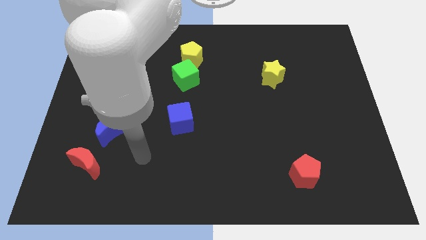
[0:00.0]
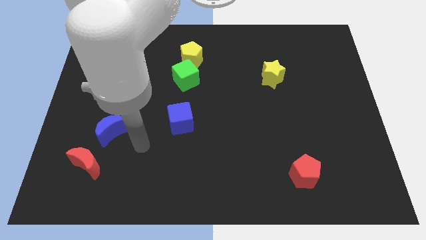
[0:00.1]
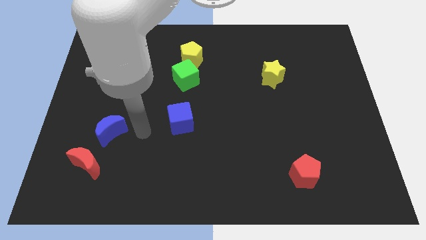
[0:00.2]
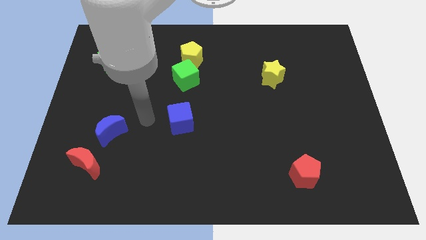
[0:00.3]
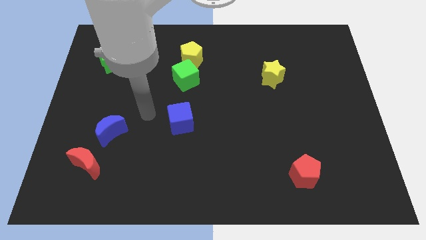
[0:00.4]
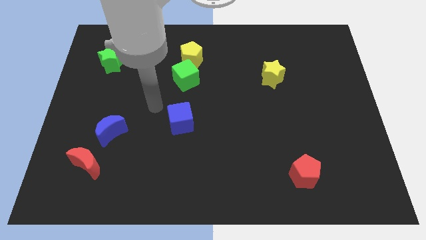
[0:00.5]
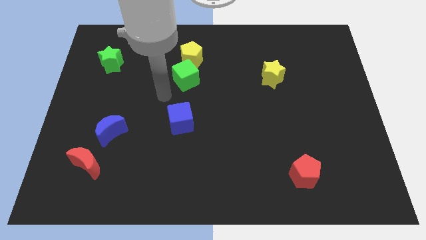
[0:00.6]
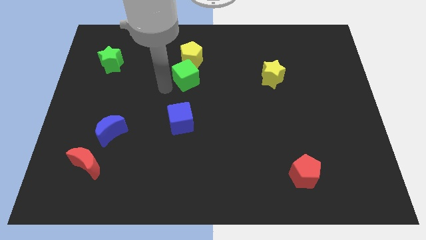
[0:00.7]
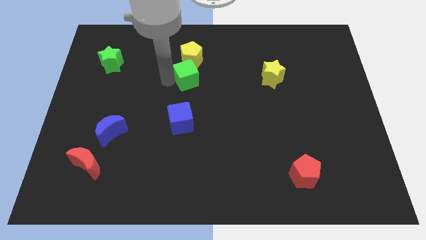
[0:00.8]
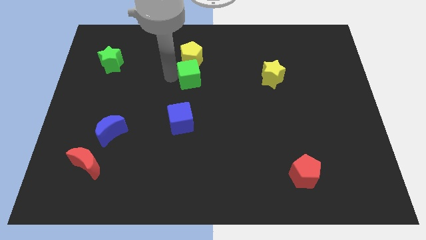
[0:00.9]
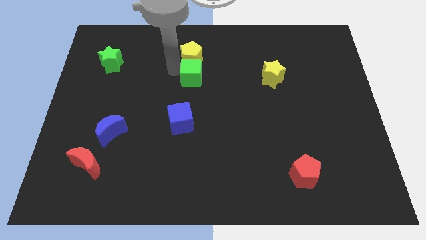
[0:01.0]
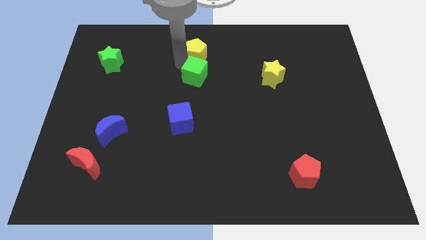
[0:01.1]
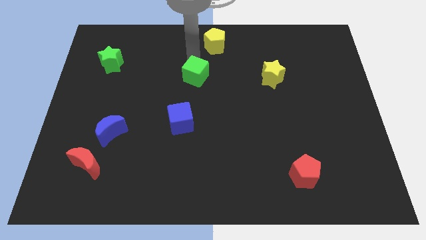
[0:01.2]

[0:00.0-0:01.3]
pull the green cube apart from the yellow pentagon

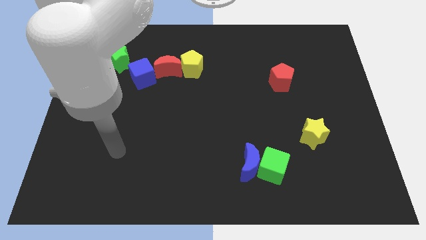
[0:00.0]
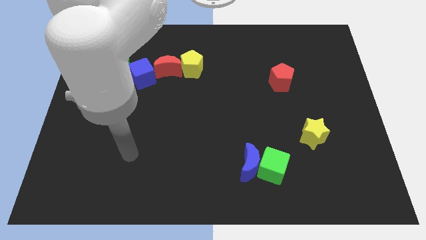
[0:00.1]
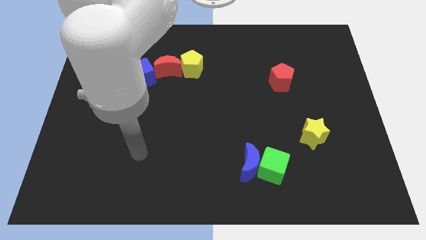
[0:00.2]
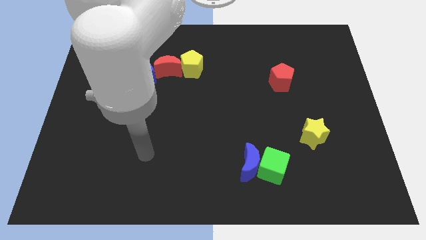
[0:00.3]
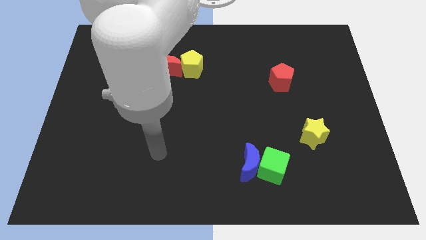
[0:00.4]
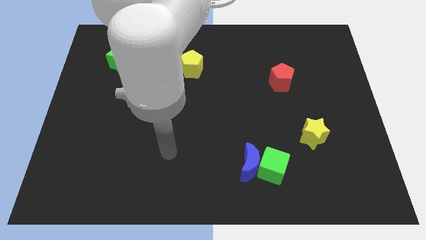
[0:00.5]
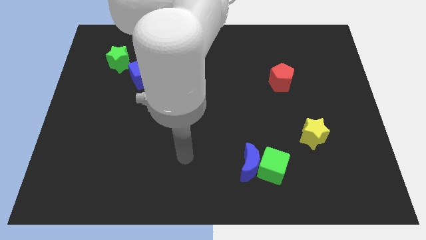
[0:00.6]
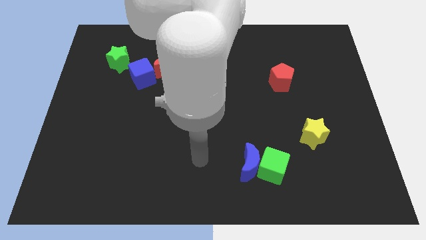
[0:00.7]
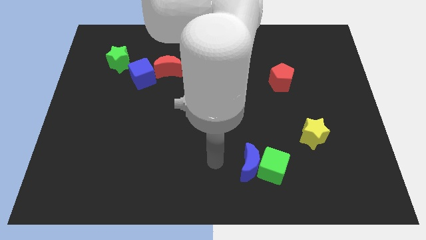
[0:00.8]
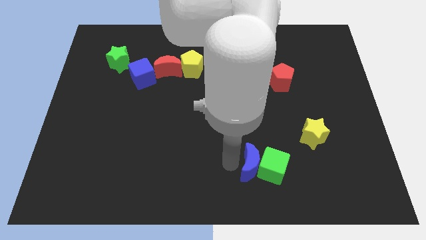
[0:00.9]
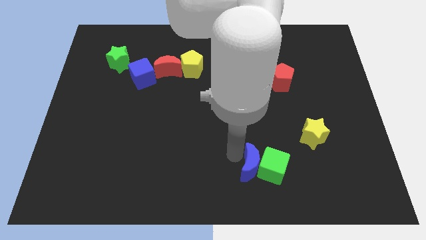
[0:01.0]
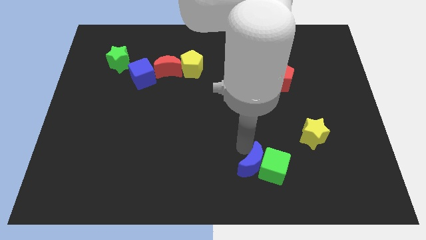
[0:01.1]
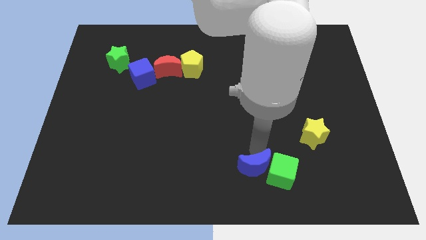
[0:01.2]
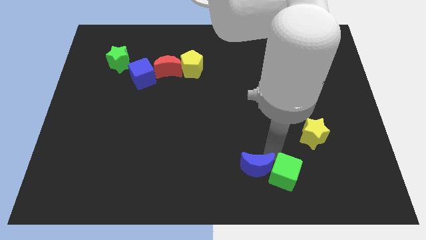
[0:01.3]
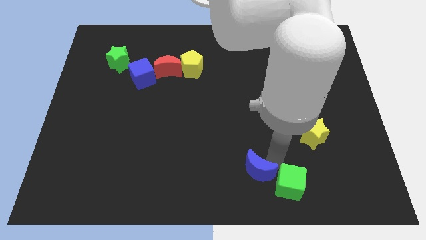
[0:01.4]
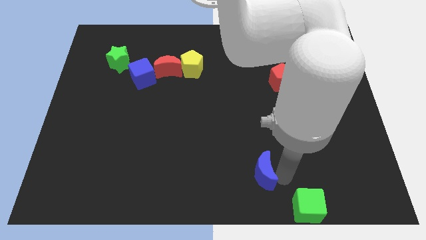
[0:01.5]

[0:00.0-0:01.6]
move the blue moon away from the green cube

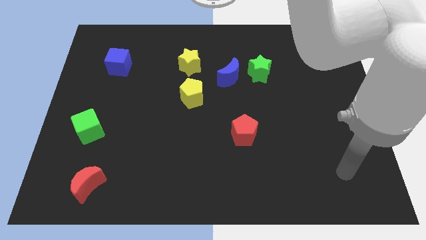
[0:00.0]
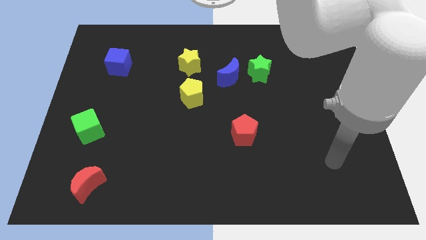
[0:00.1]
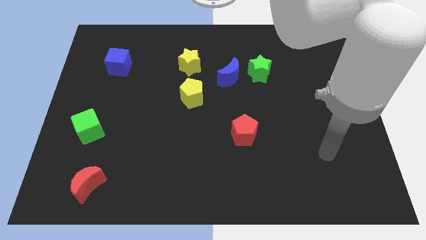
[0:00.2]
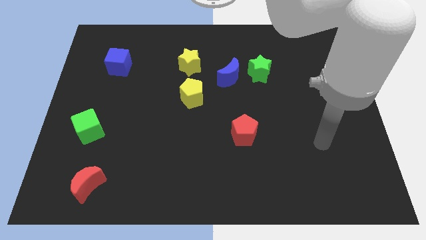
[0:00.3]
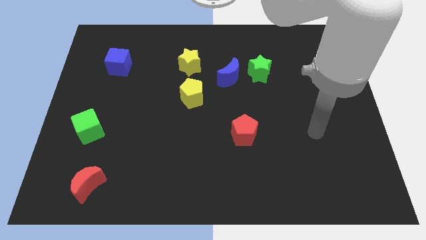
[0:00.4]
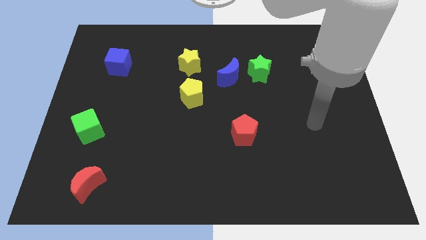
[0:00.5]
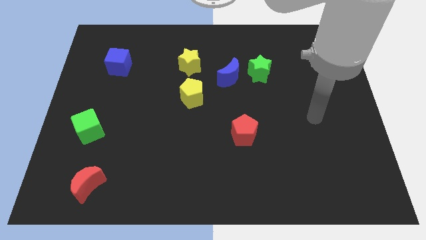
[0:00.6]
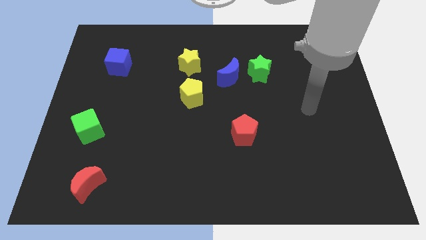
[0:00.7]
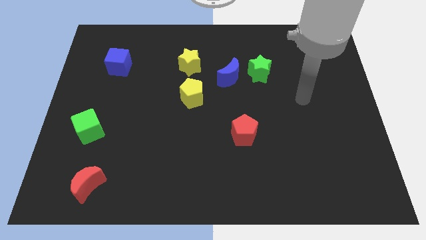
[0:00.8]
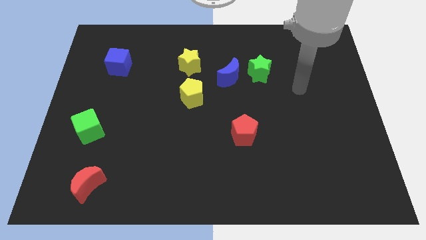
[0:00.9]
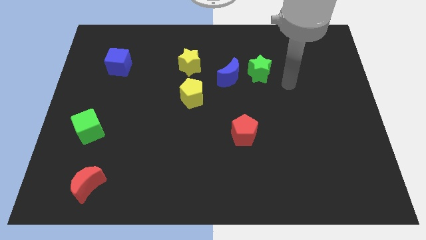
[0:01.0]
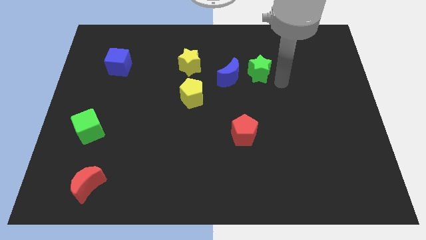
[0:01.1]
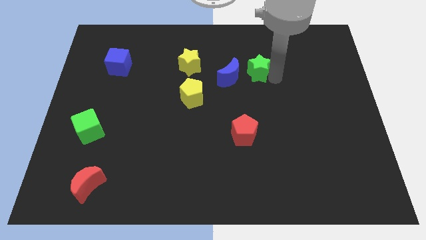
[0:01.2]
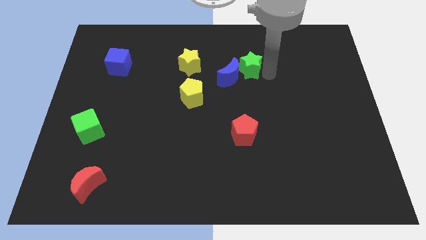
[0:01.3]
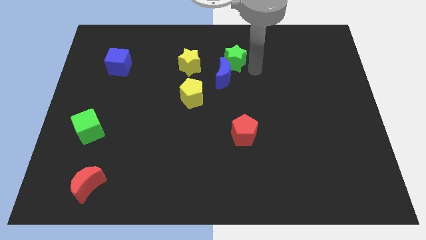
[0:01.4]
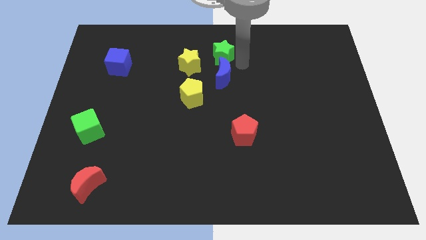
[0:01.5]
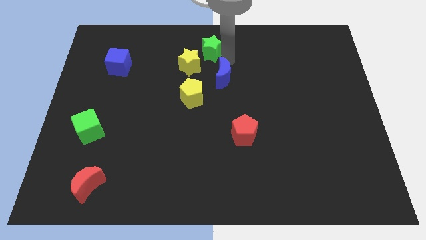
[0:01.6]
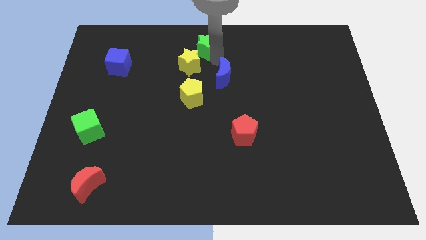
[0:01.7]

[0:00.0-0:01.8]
separate the blue moon from the green star

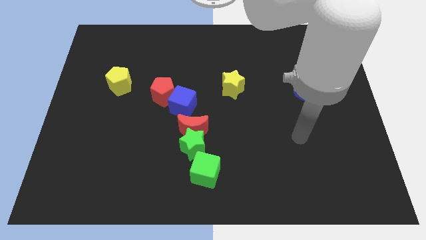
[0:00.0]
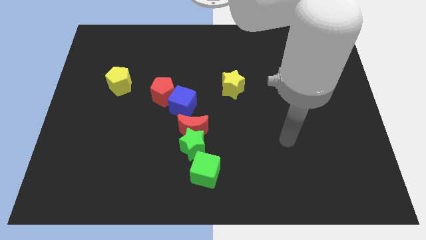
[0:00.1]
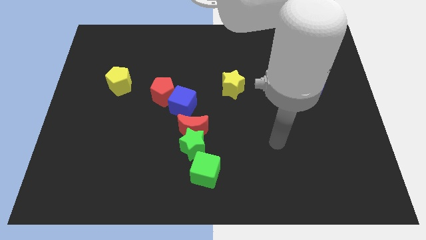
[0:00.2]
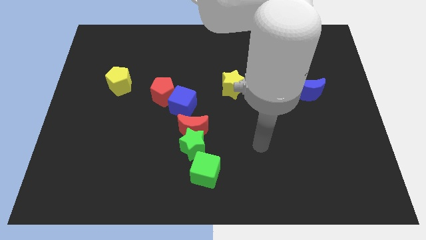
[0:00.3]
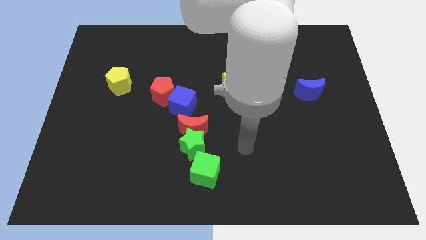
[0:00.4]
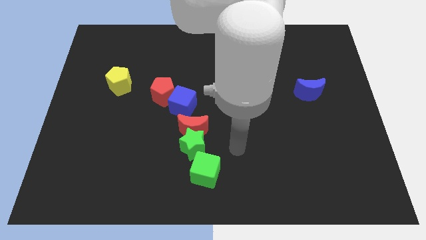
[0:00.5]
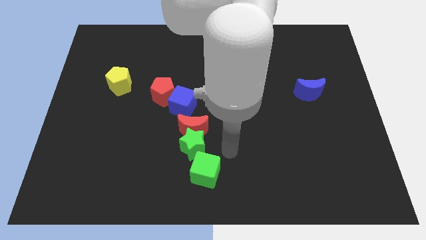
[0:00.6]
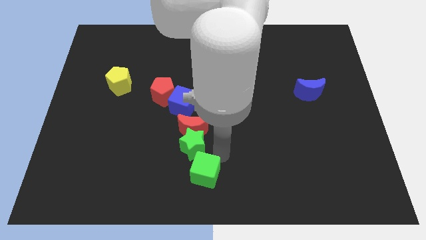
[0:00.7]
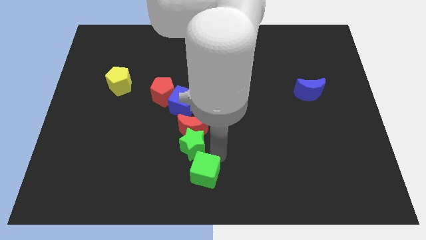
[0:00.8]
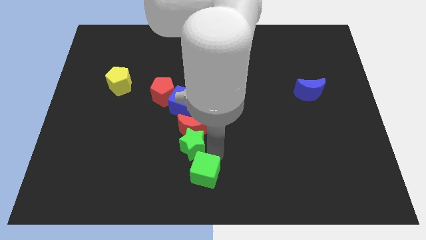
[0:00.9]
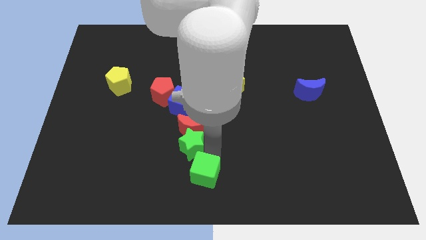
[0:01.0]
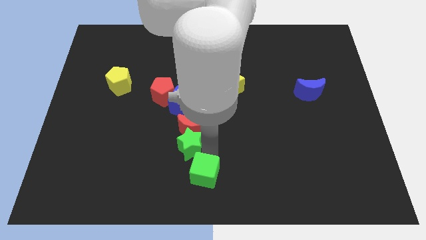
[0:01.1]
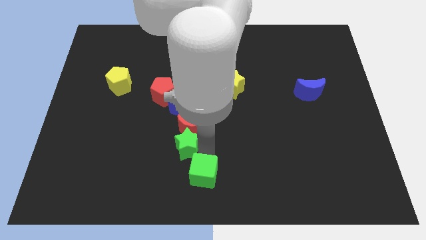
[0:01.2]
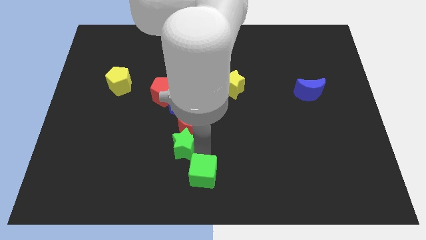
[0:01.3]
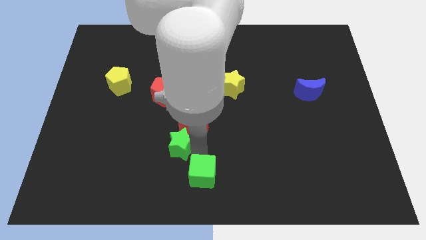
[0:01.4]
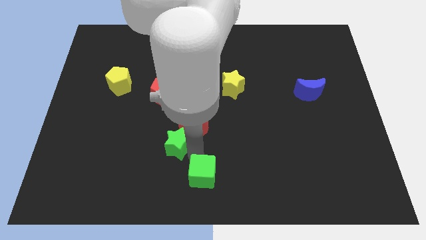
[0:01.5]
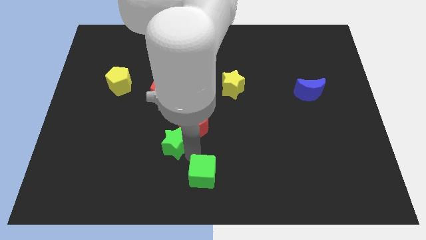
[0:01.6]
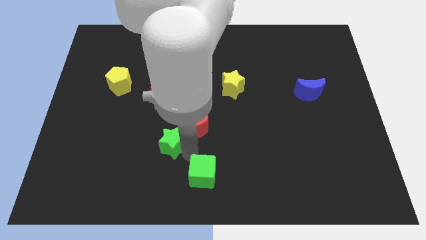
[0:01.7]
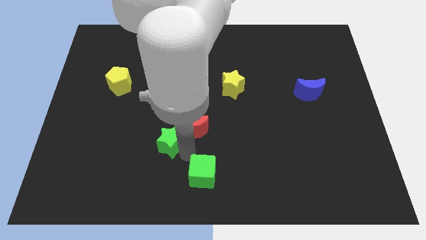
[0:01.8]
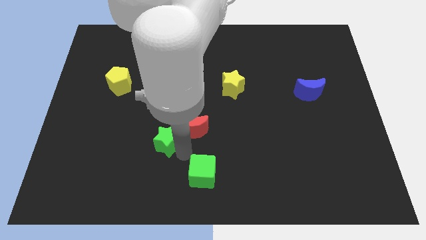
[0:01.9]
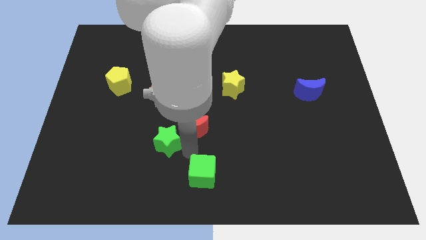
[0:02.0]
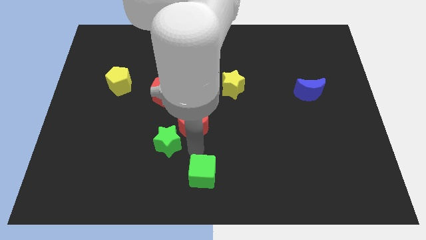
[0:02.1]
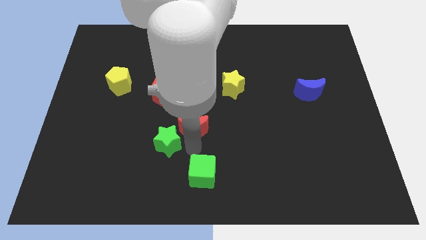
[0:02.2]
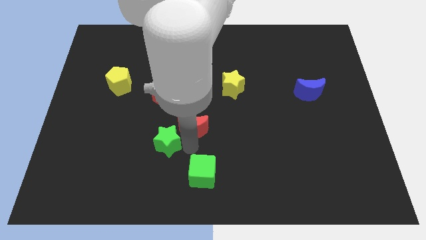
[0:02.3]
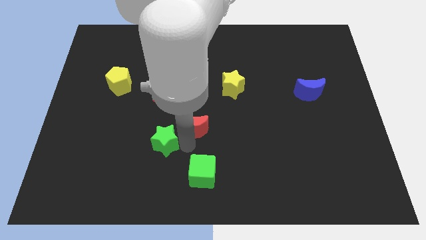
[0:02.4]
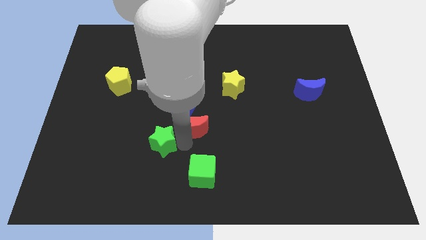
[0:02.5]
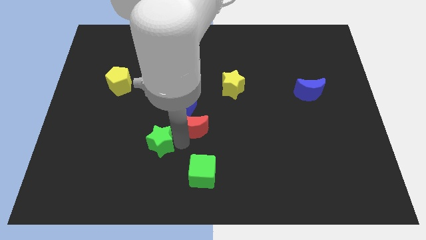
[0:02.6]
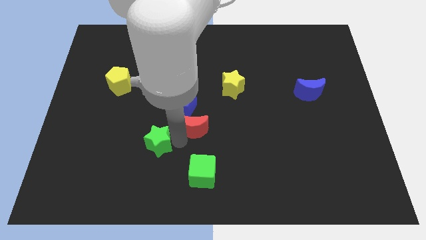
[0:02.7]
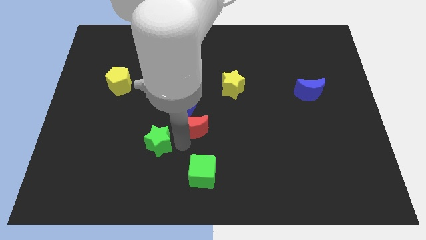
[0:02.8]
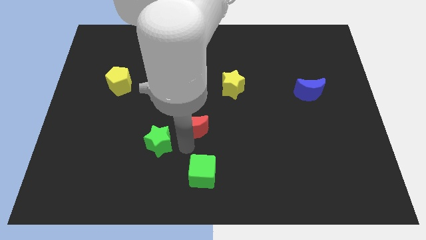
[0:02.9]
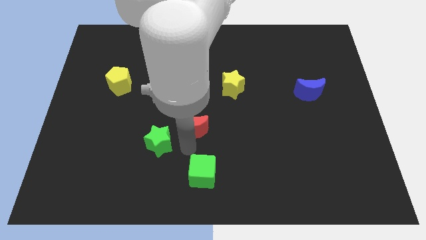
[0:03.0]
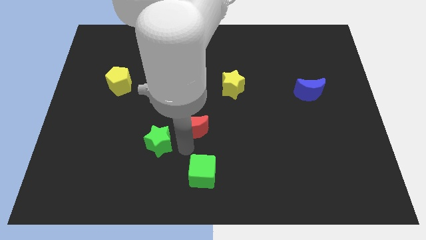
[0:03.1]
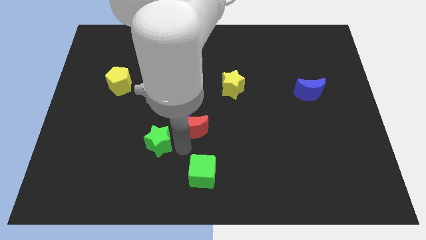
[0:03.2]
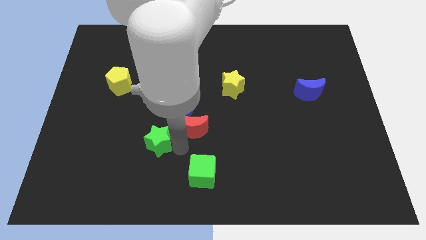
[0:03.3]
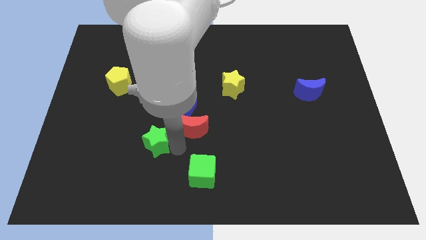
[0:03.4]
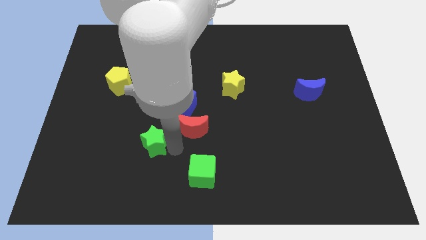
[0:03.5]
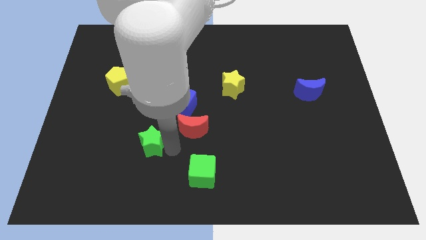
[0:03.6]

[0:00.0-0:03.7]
separate the green star from the red moon and green cube

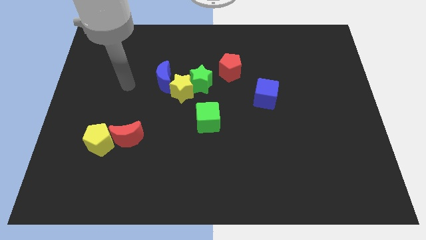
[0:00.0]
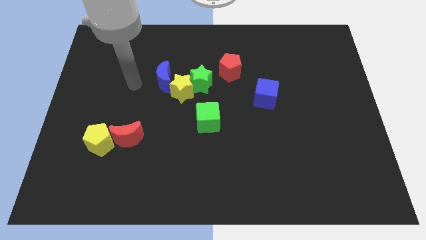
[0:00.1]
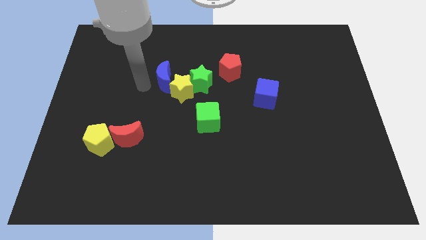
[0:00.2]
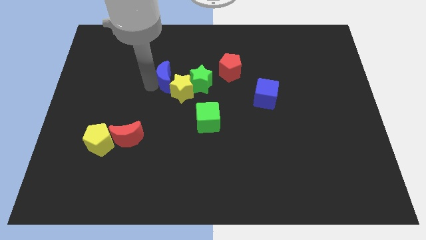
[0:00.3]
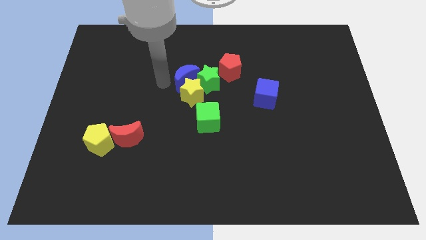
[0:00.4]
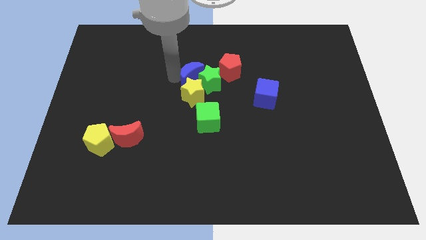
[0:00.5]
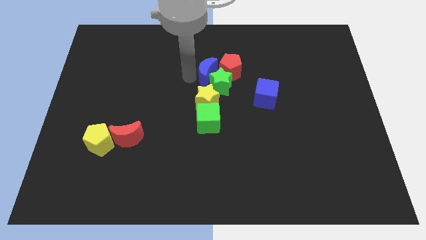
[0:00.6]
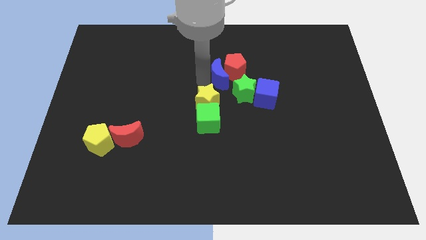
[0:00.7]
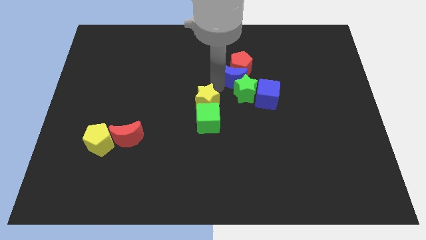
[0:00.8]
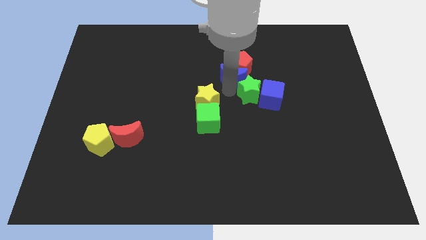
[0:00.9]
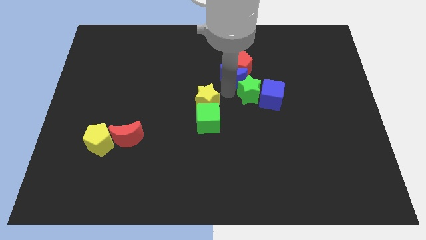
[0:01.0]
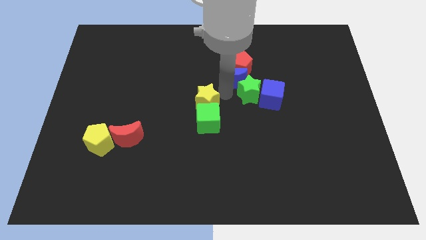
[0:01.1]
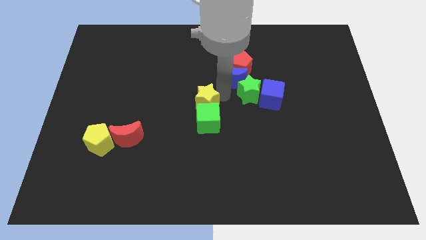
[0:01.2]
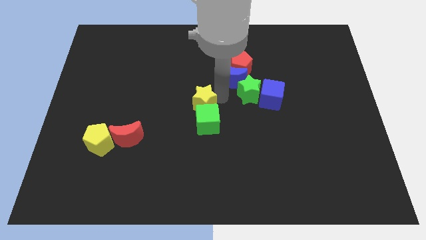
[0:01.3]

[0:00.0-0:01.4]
separate the yellow star from the blue moon and green star
